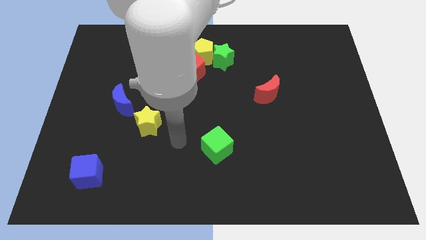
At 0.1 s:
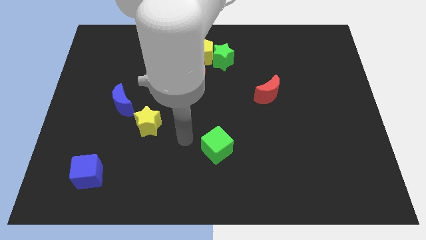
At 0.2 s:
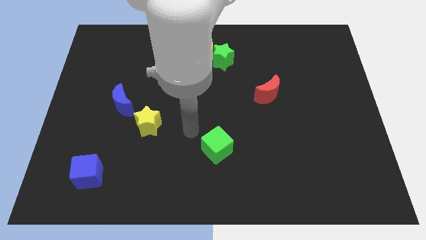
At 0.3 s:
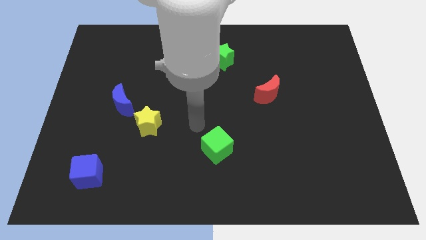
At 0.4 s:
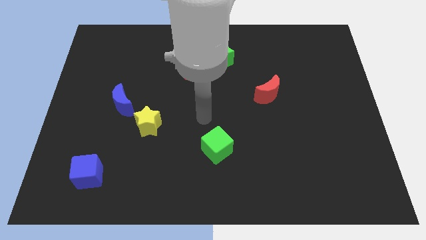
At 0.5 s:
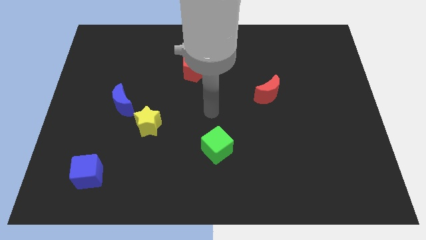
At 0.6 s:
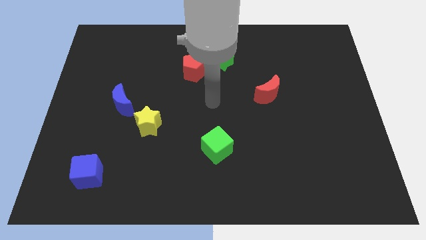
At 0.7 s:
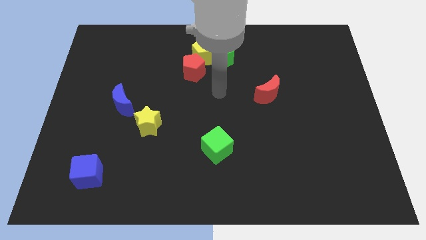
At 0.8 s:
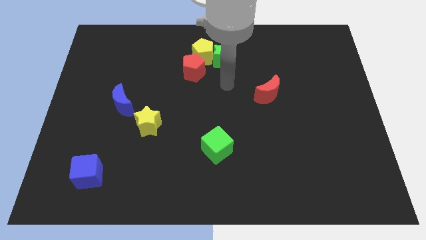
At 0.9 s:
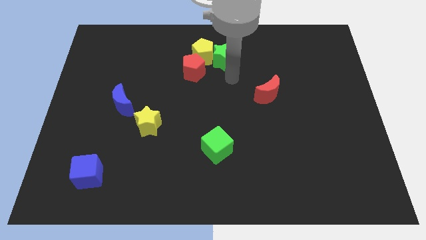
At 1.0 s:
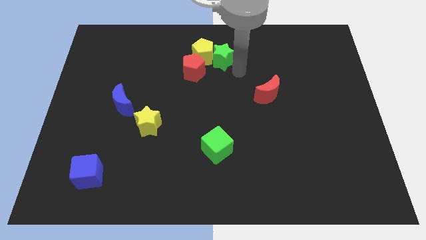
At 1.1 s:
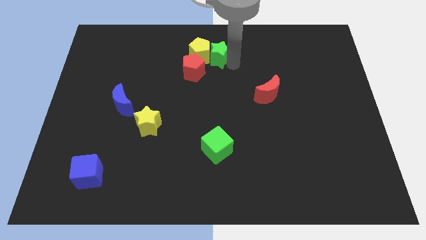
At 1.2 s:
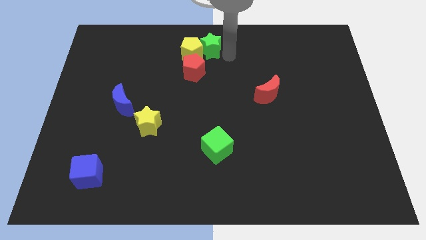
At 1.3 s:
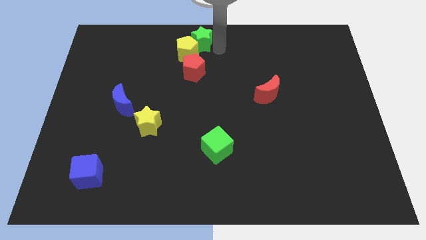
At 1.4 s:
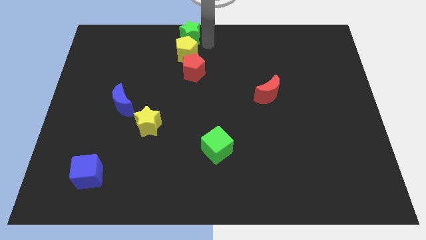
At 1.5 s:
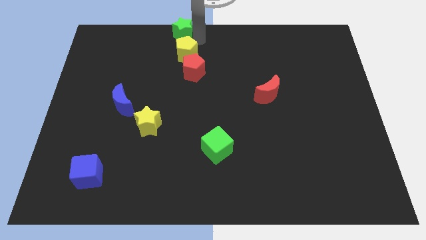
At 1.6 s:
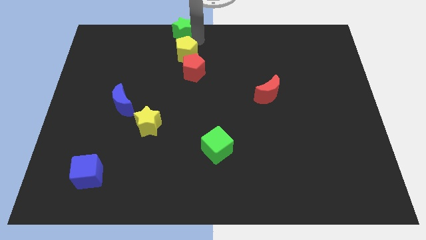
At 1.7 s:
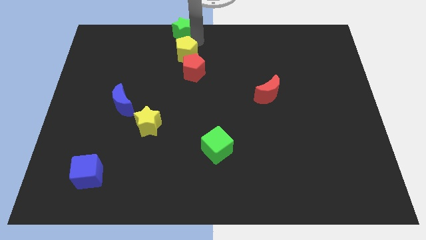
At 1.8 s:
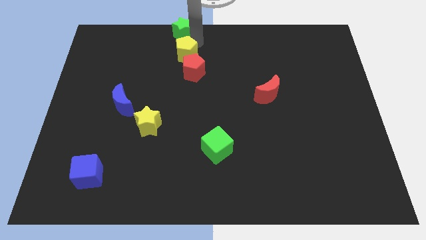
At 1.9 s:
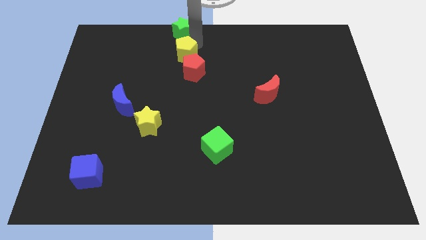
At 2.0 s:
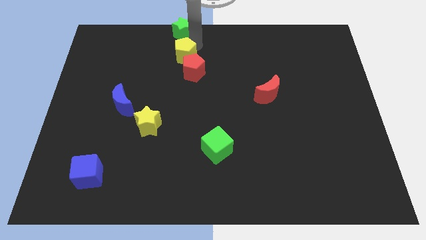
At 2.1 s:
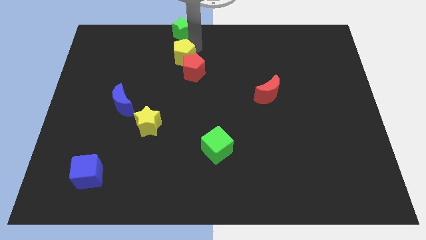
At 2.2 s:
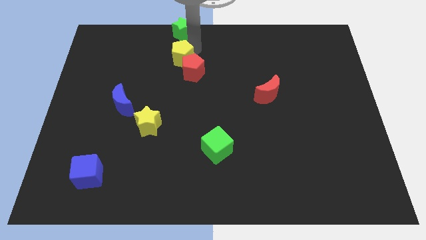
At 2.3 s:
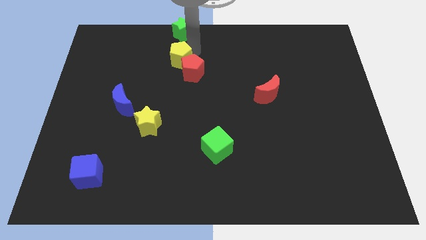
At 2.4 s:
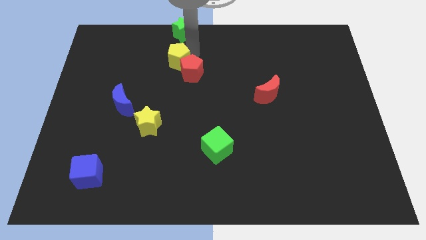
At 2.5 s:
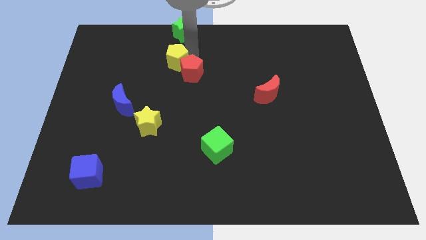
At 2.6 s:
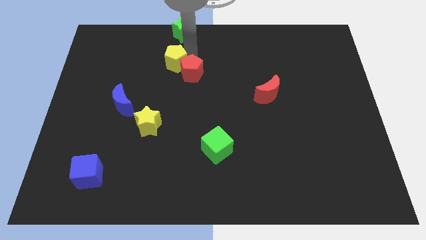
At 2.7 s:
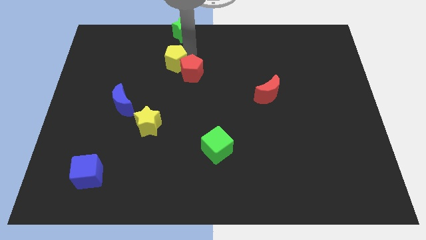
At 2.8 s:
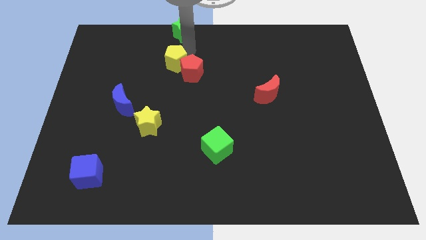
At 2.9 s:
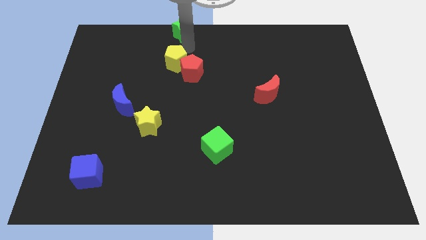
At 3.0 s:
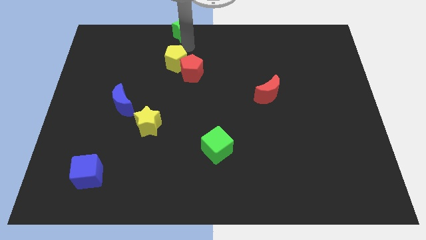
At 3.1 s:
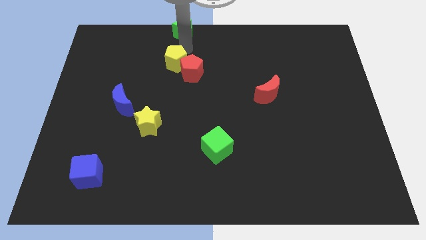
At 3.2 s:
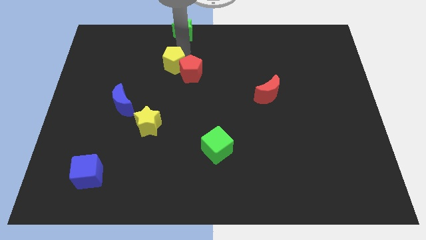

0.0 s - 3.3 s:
push the yellow pentagon downwards and left diagonally a little

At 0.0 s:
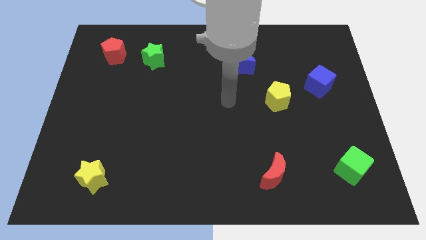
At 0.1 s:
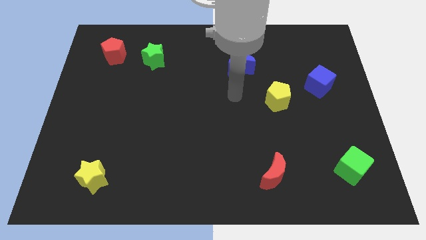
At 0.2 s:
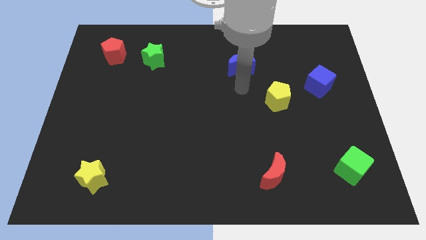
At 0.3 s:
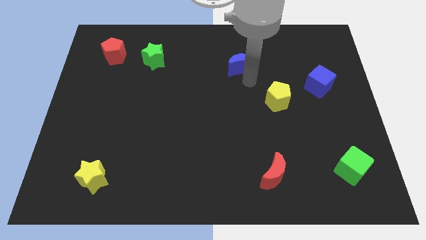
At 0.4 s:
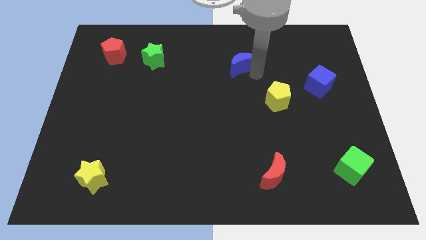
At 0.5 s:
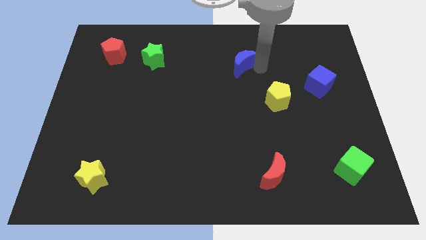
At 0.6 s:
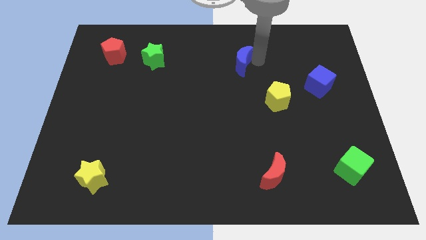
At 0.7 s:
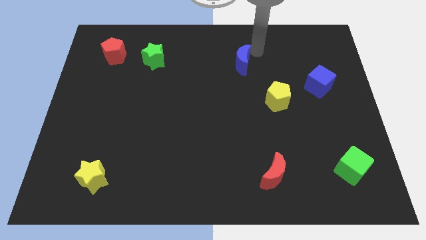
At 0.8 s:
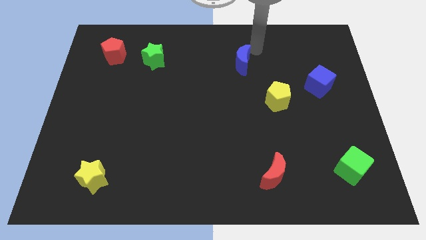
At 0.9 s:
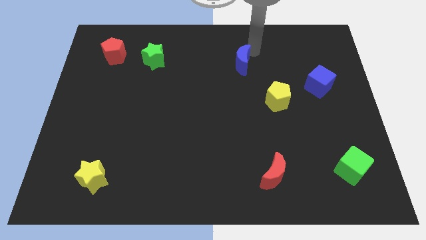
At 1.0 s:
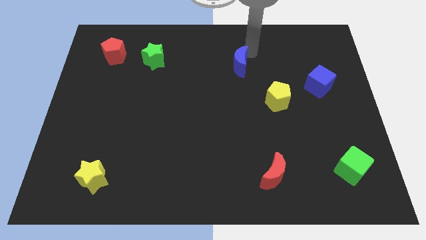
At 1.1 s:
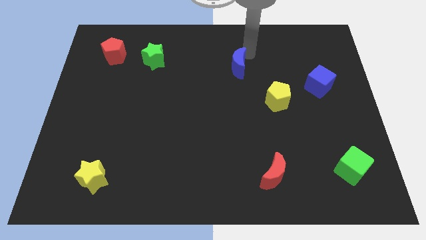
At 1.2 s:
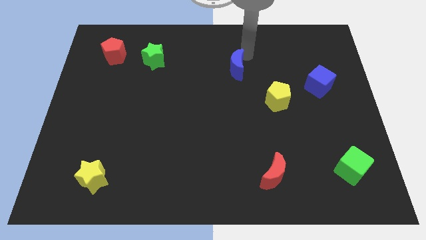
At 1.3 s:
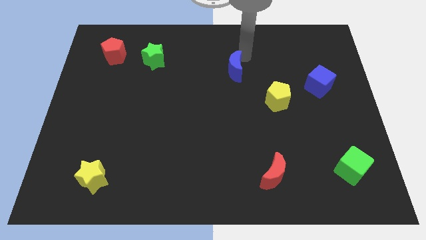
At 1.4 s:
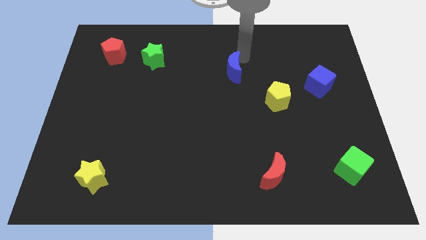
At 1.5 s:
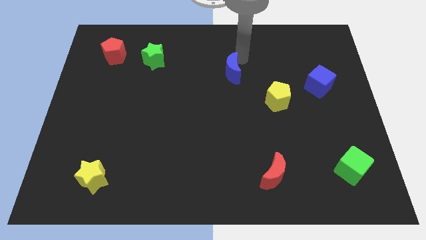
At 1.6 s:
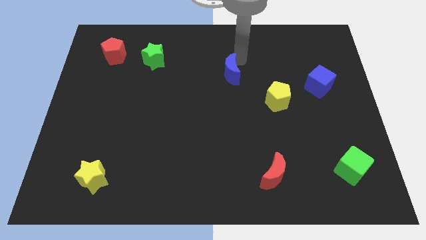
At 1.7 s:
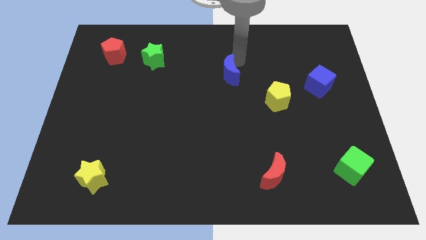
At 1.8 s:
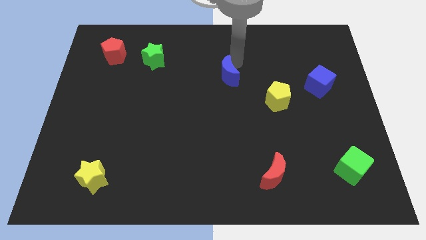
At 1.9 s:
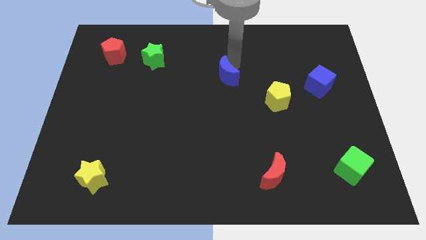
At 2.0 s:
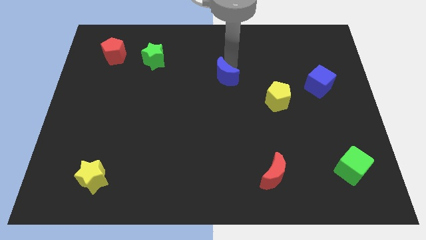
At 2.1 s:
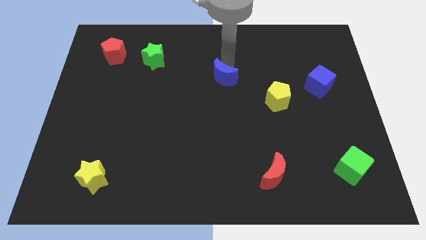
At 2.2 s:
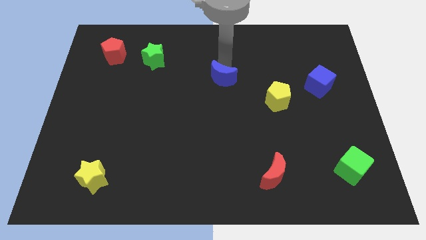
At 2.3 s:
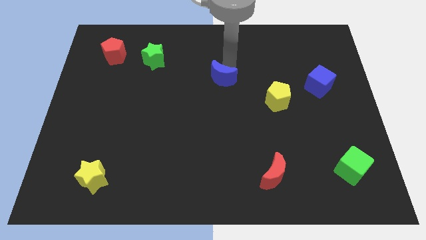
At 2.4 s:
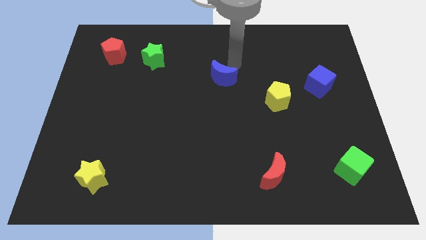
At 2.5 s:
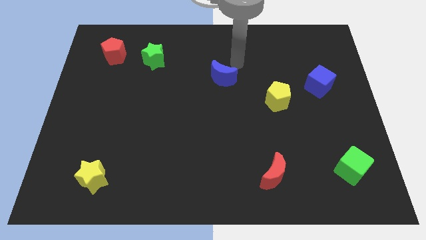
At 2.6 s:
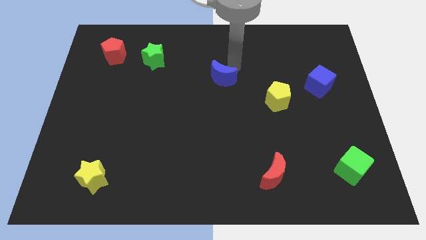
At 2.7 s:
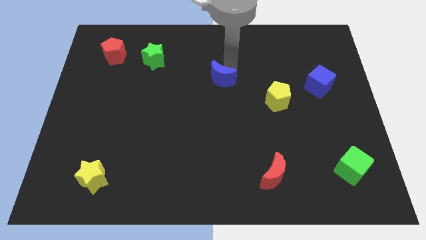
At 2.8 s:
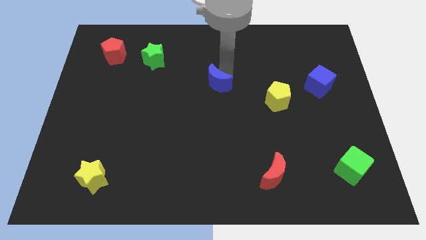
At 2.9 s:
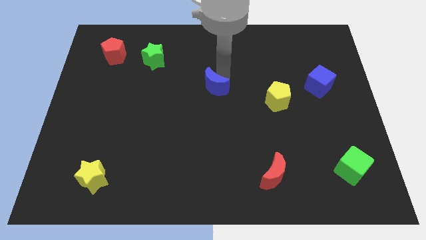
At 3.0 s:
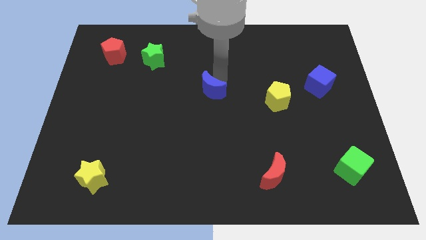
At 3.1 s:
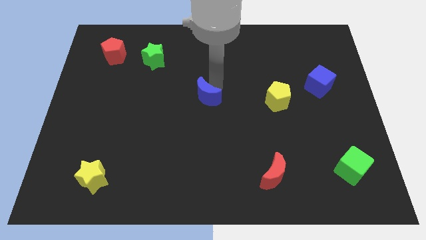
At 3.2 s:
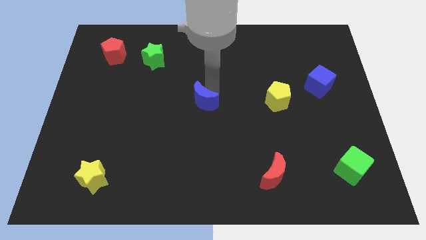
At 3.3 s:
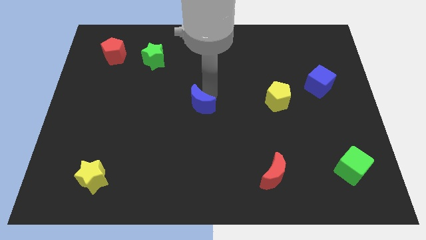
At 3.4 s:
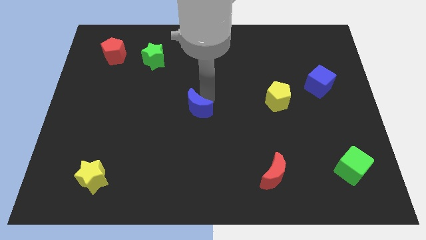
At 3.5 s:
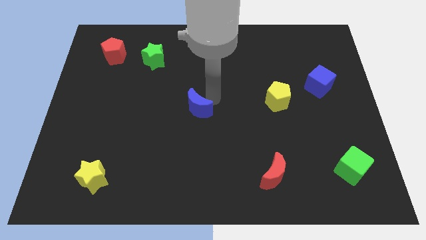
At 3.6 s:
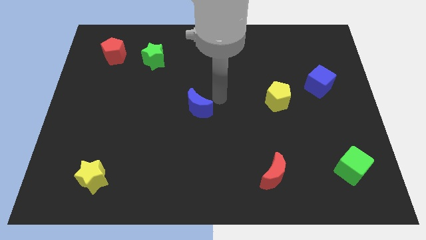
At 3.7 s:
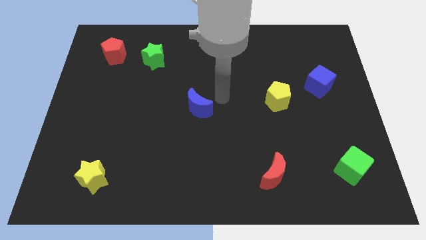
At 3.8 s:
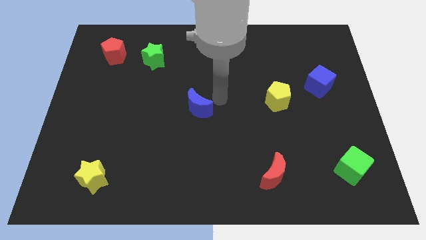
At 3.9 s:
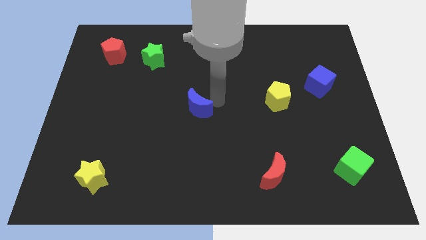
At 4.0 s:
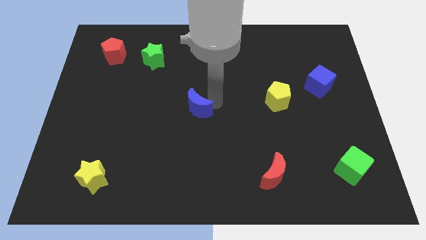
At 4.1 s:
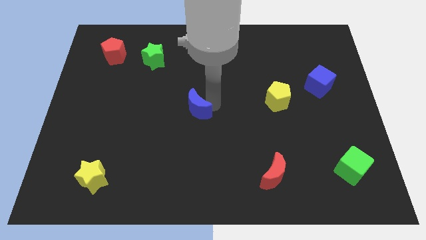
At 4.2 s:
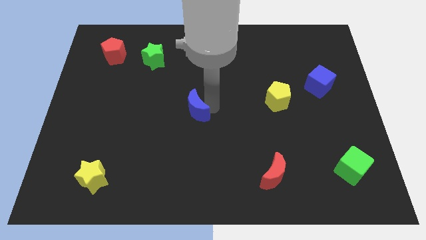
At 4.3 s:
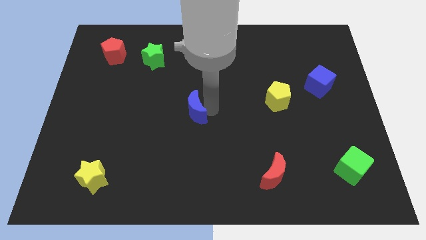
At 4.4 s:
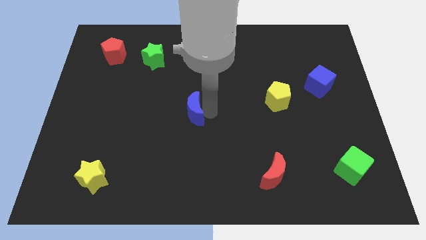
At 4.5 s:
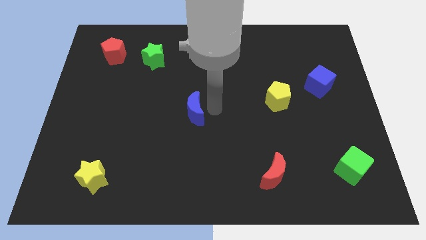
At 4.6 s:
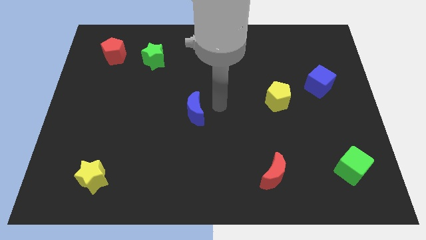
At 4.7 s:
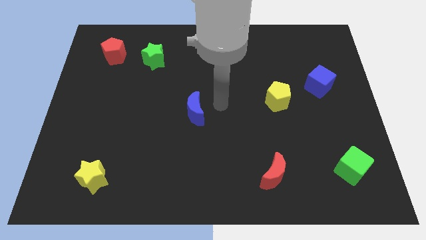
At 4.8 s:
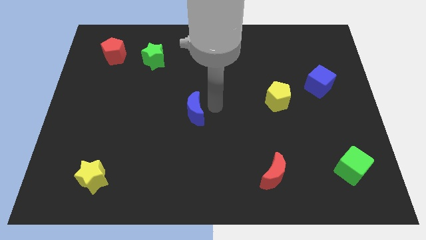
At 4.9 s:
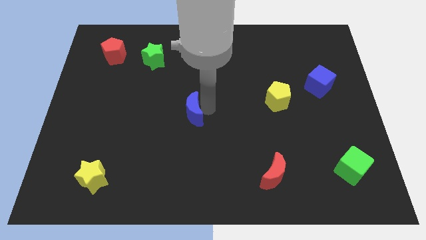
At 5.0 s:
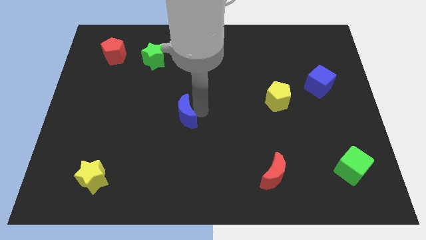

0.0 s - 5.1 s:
move the blue moon down and to the left diagonally
